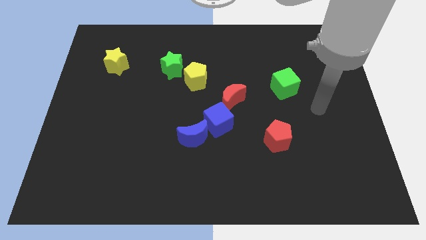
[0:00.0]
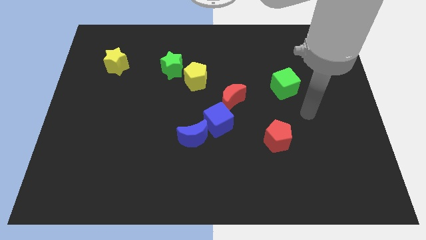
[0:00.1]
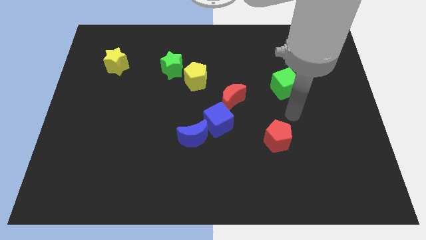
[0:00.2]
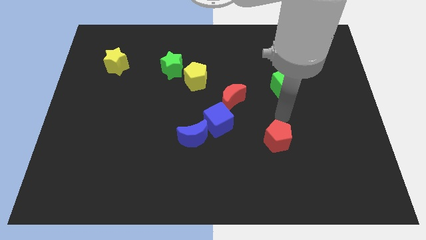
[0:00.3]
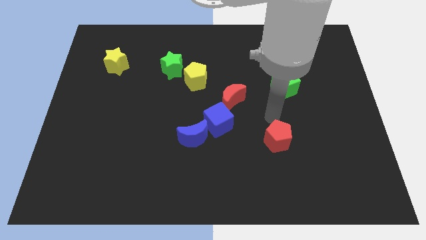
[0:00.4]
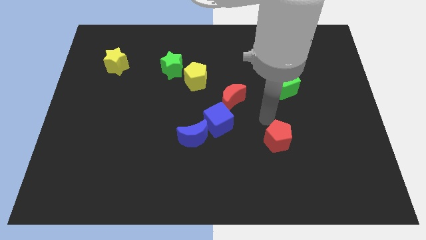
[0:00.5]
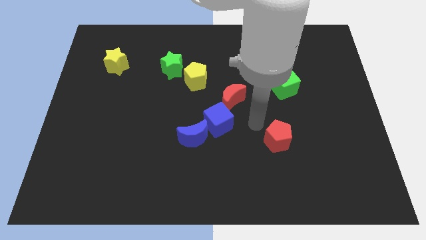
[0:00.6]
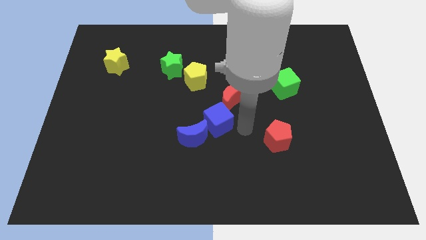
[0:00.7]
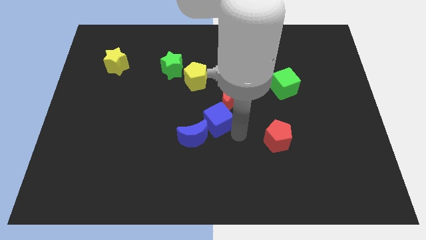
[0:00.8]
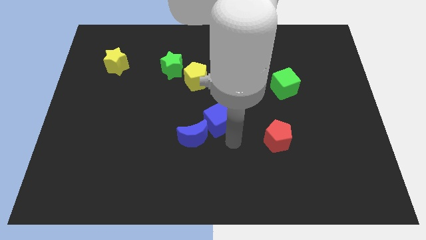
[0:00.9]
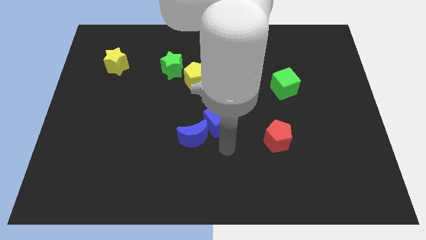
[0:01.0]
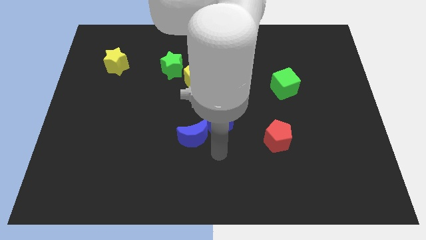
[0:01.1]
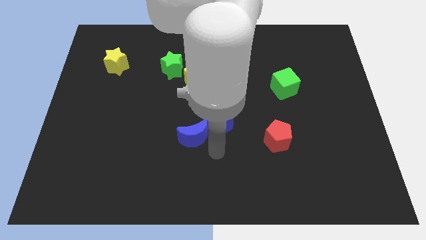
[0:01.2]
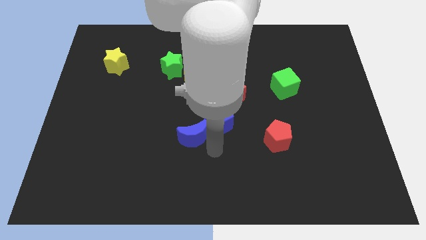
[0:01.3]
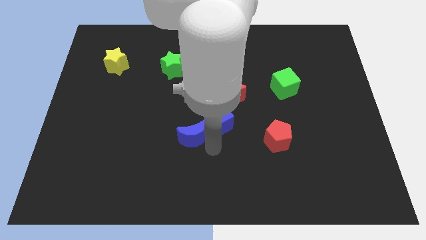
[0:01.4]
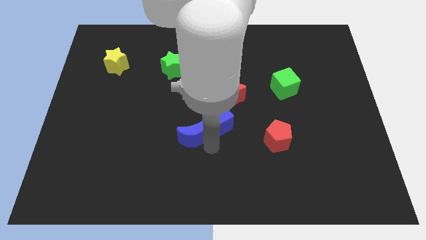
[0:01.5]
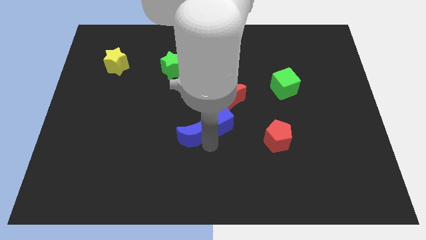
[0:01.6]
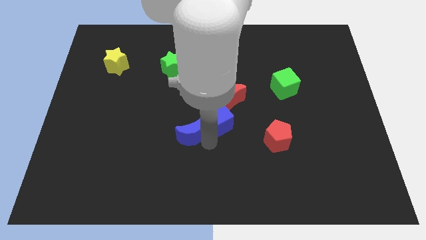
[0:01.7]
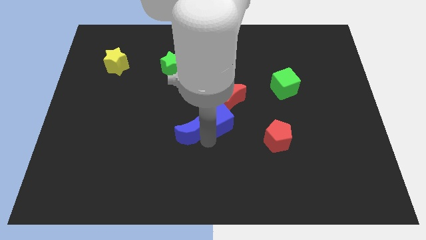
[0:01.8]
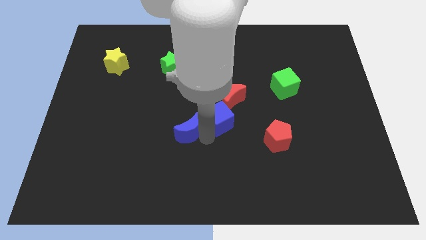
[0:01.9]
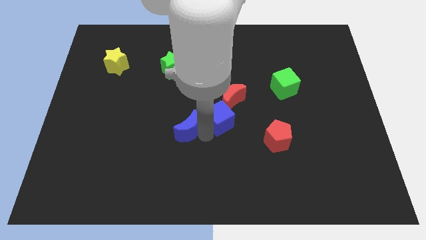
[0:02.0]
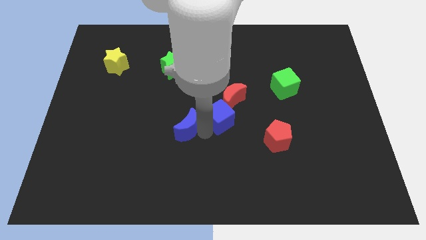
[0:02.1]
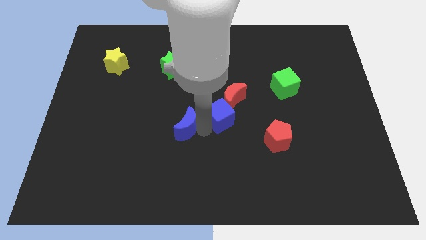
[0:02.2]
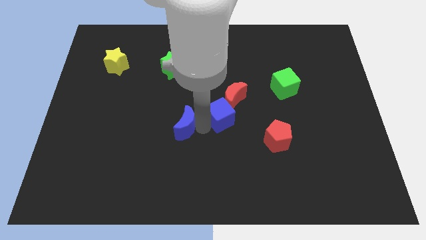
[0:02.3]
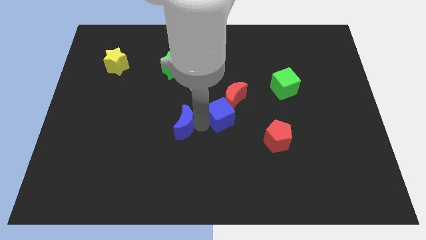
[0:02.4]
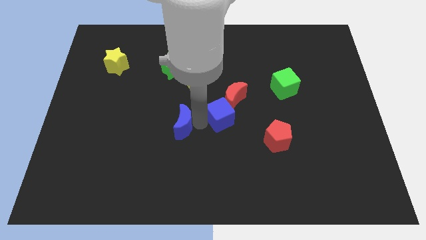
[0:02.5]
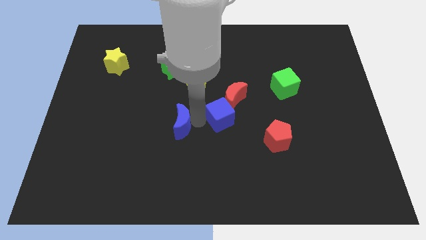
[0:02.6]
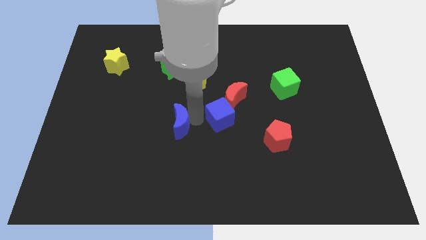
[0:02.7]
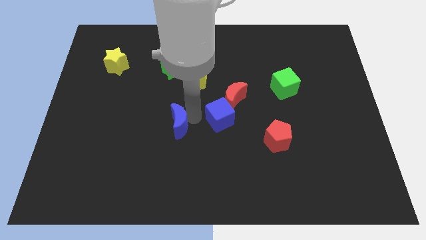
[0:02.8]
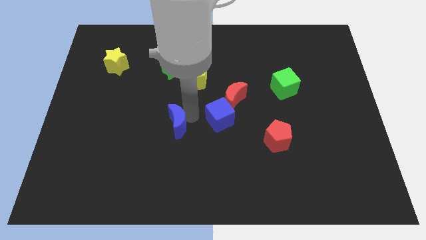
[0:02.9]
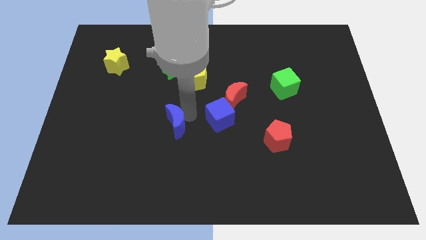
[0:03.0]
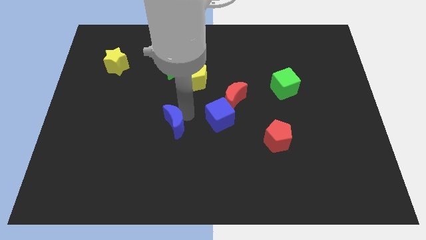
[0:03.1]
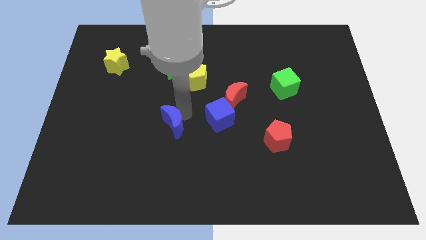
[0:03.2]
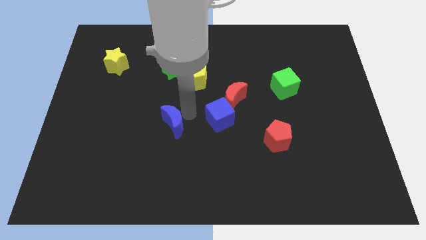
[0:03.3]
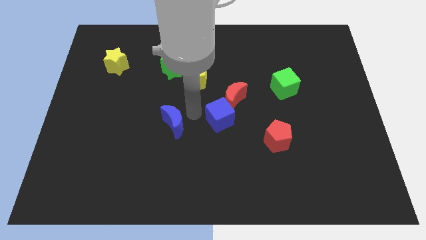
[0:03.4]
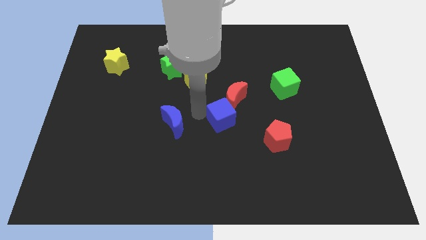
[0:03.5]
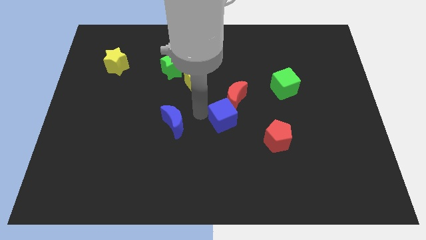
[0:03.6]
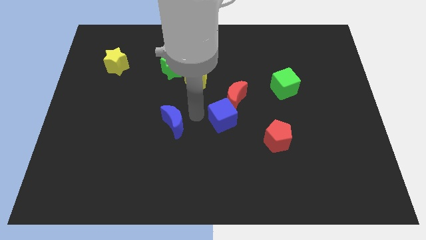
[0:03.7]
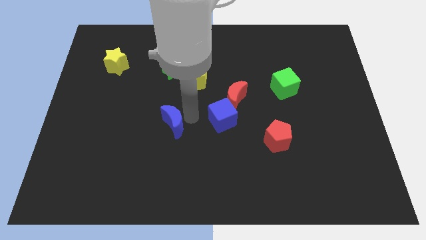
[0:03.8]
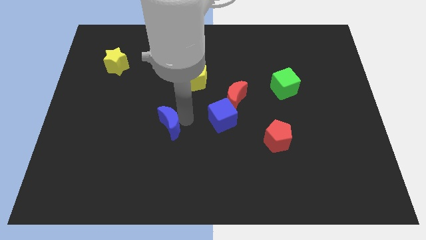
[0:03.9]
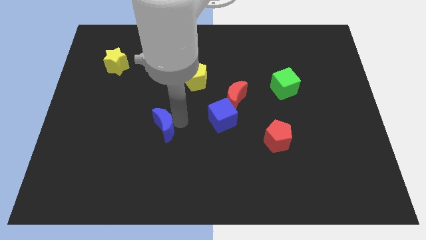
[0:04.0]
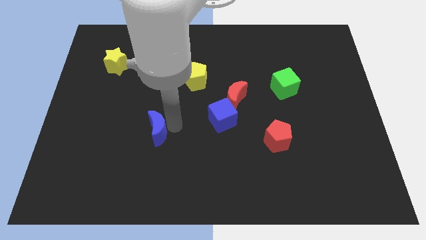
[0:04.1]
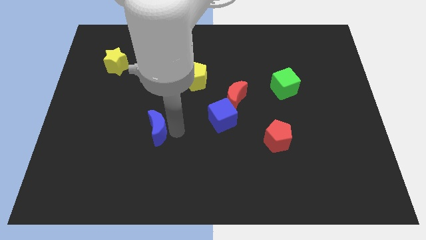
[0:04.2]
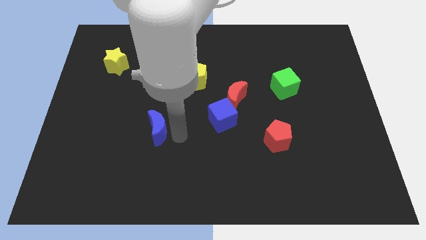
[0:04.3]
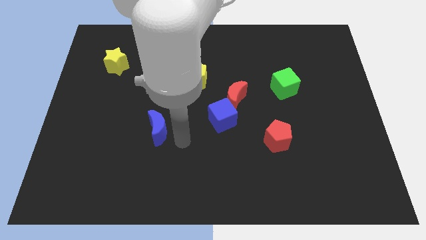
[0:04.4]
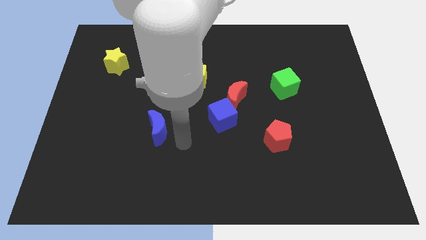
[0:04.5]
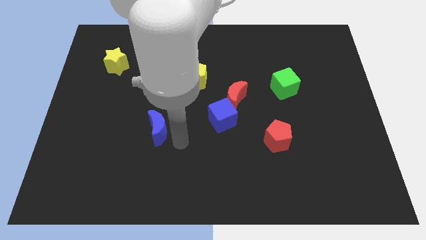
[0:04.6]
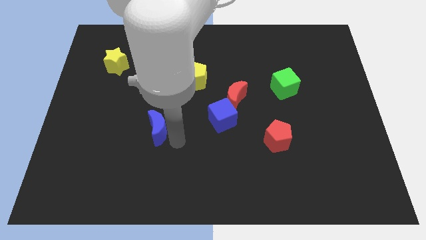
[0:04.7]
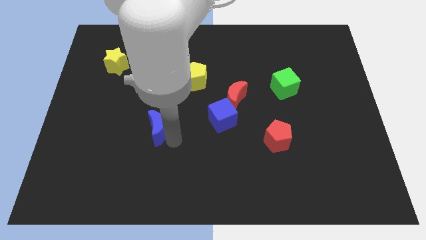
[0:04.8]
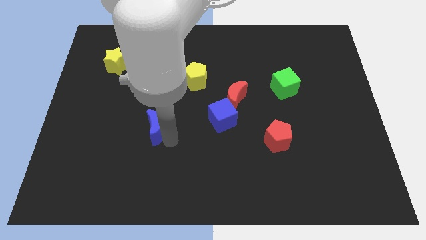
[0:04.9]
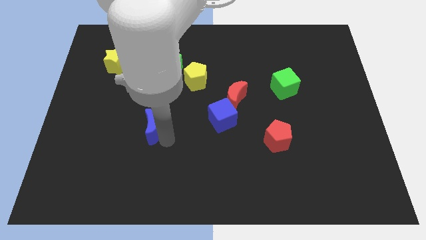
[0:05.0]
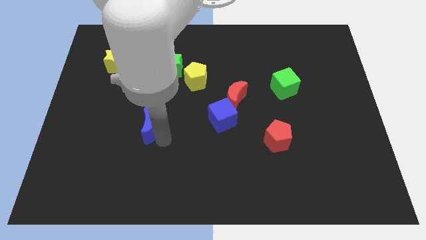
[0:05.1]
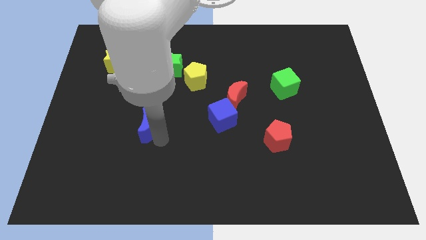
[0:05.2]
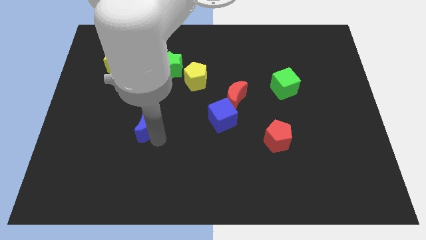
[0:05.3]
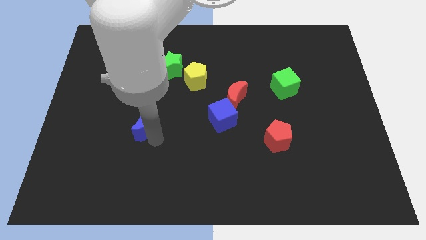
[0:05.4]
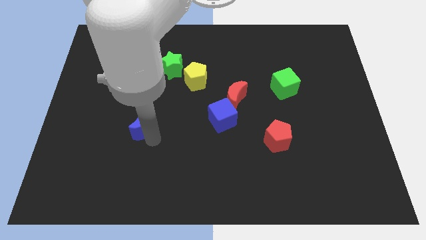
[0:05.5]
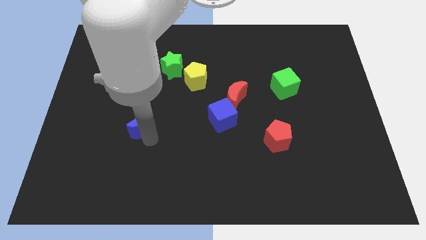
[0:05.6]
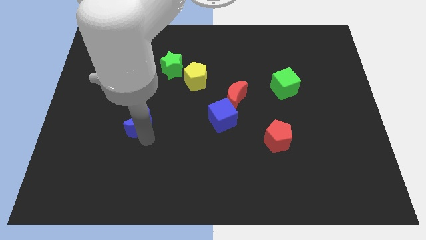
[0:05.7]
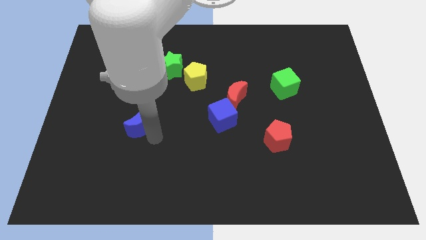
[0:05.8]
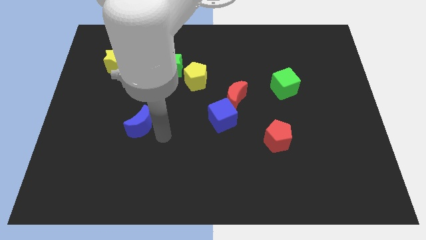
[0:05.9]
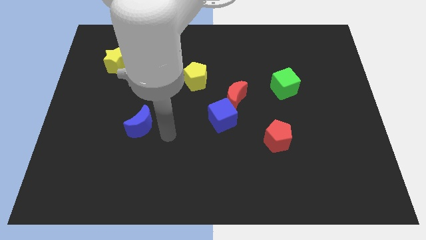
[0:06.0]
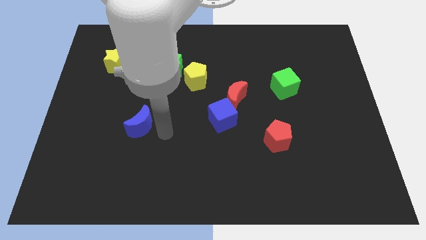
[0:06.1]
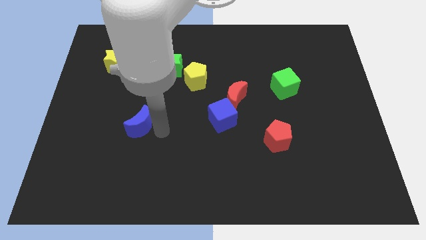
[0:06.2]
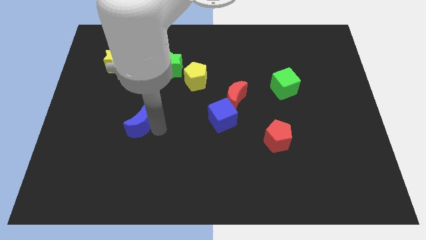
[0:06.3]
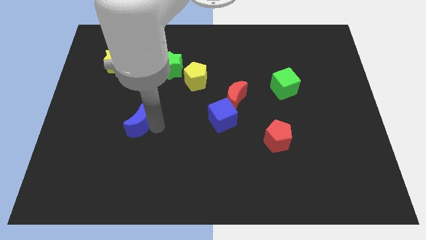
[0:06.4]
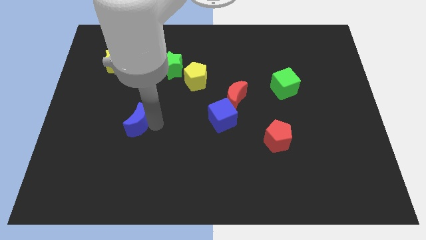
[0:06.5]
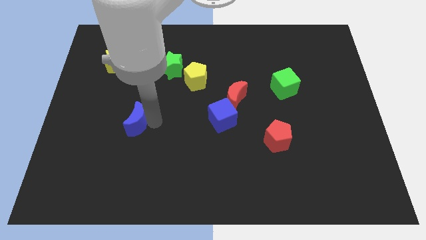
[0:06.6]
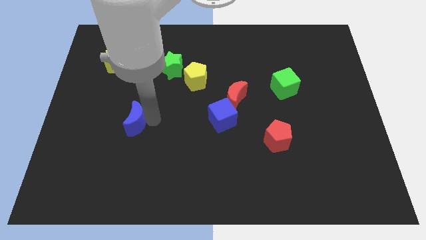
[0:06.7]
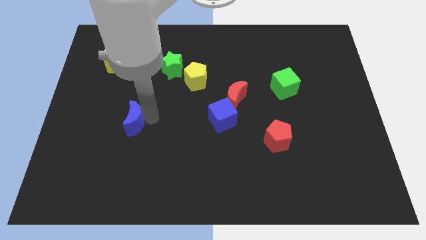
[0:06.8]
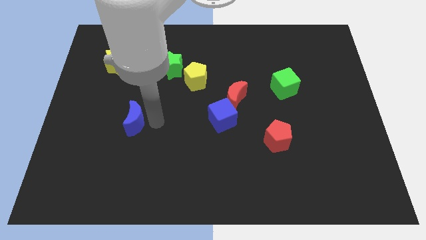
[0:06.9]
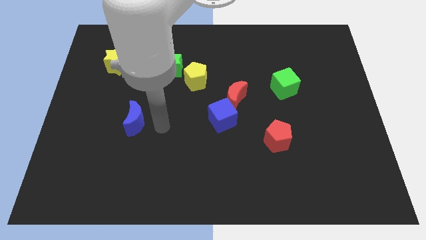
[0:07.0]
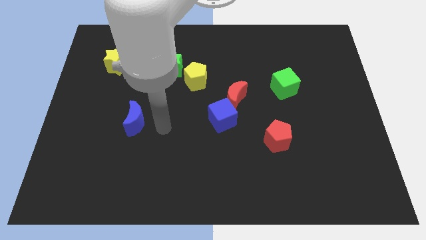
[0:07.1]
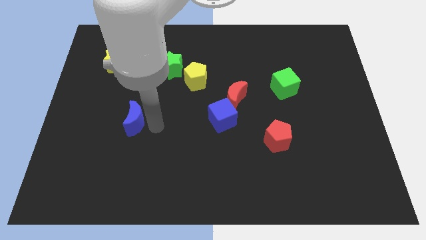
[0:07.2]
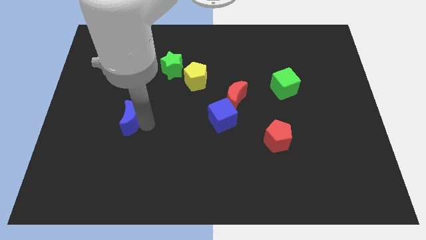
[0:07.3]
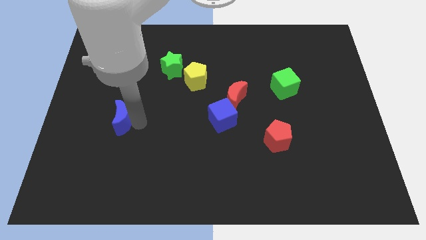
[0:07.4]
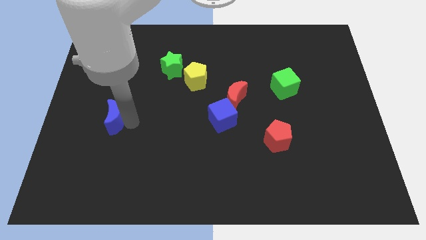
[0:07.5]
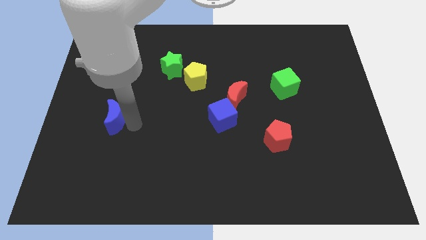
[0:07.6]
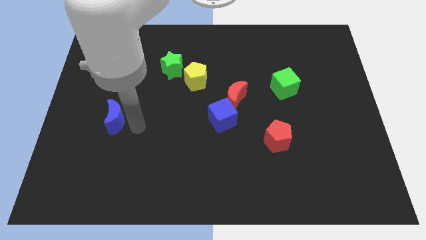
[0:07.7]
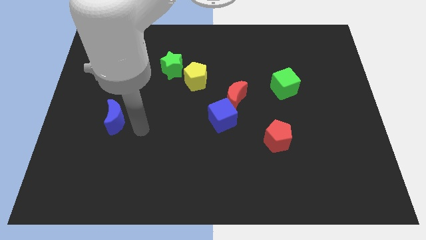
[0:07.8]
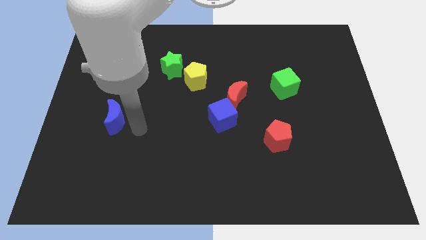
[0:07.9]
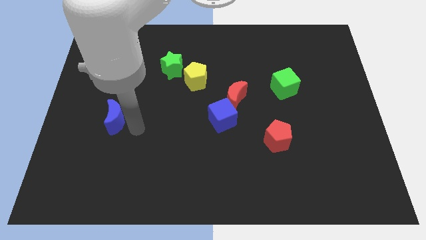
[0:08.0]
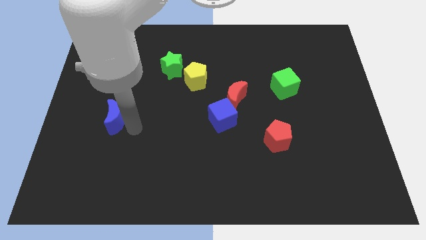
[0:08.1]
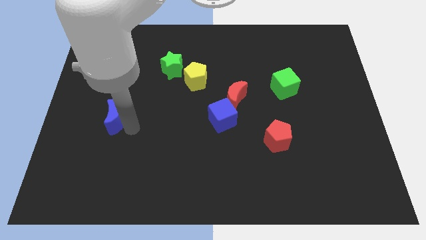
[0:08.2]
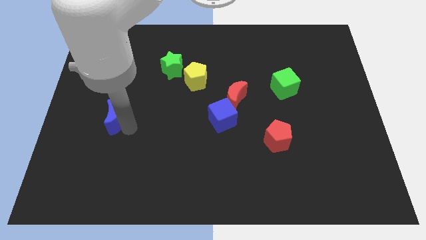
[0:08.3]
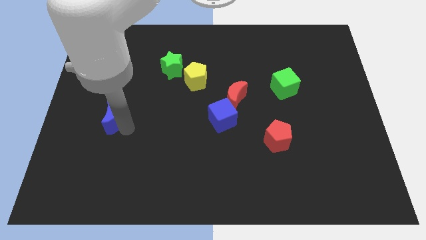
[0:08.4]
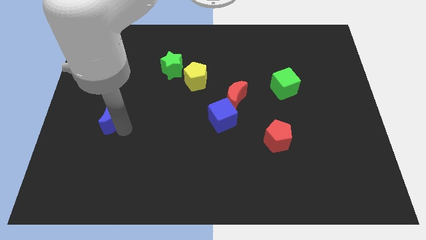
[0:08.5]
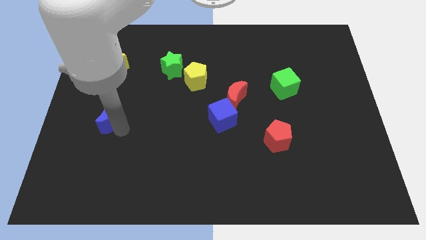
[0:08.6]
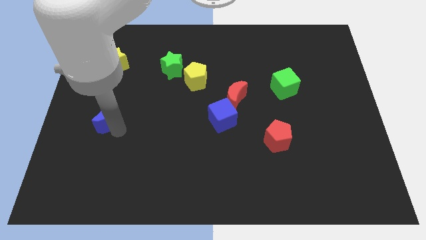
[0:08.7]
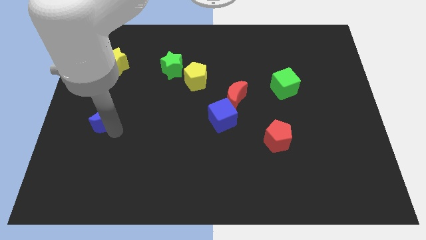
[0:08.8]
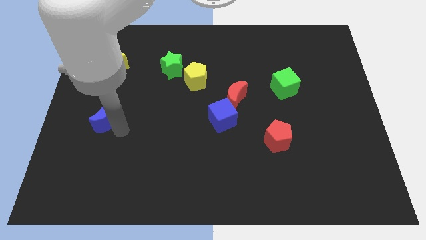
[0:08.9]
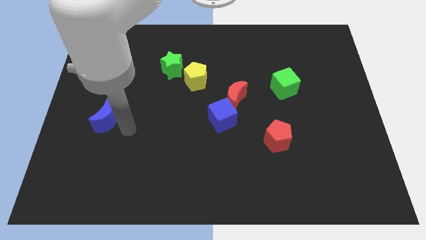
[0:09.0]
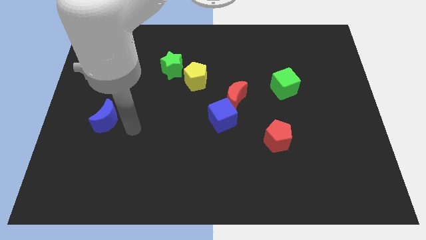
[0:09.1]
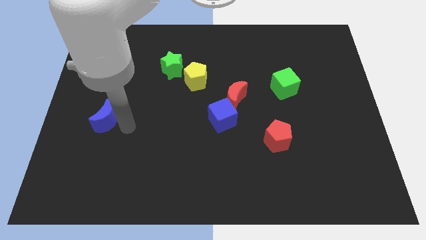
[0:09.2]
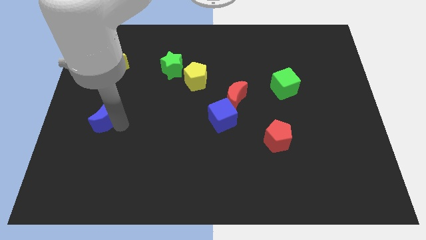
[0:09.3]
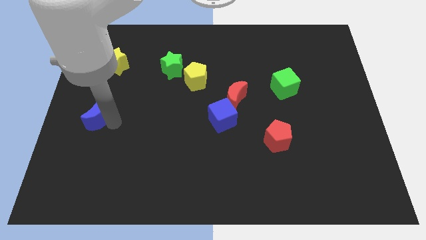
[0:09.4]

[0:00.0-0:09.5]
put the blue moon to the center left
